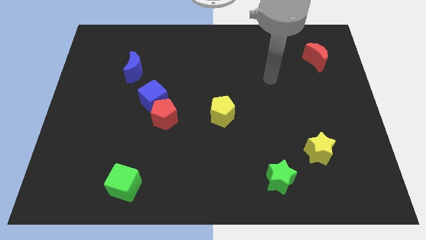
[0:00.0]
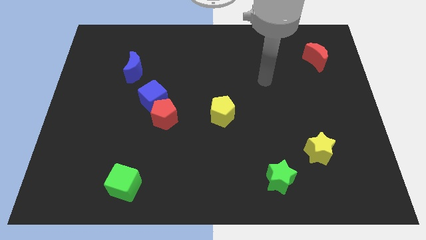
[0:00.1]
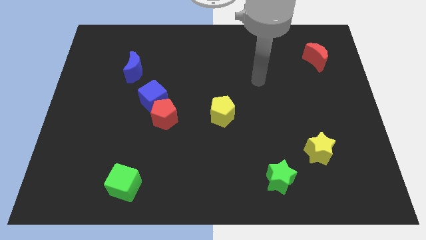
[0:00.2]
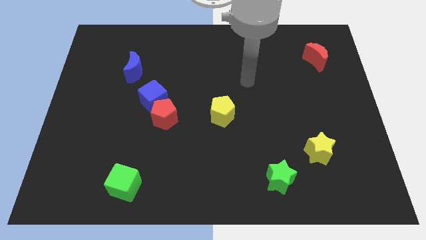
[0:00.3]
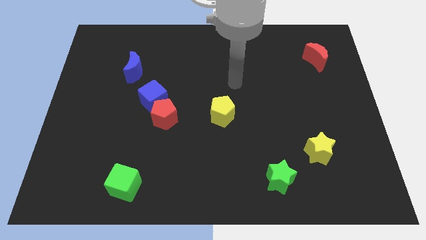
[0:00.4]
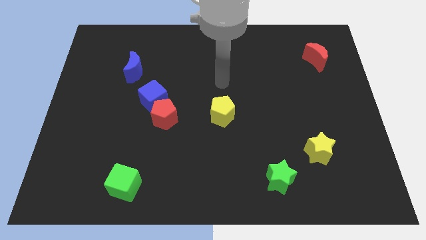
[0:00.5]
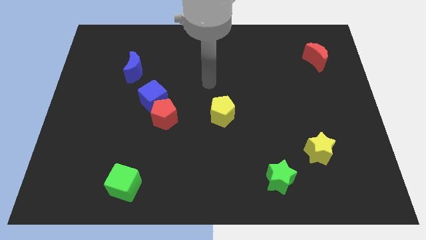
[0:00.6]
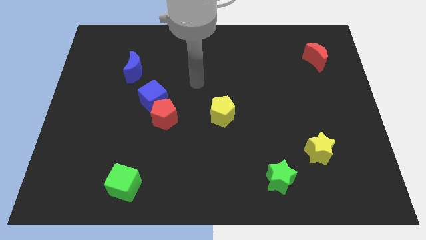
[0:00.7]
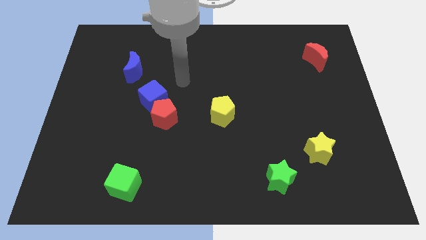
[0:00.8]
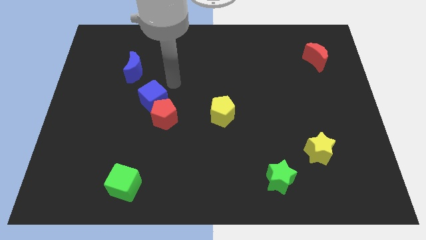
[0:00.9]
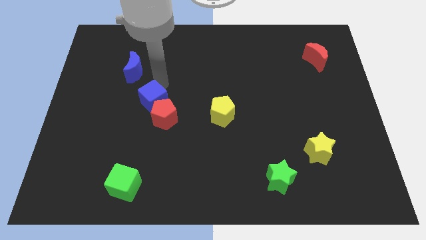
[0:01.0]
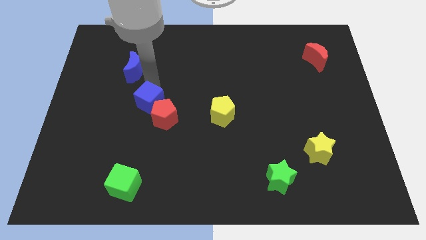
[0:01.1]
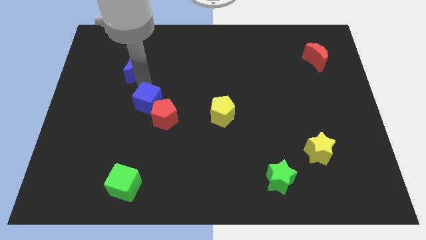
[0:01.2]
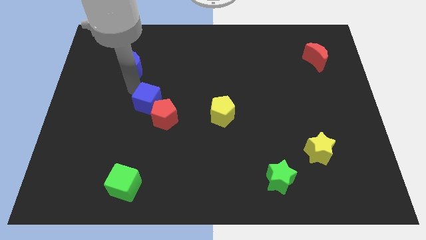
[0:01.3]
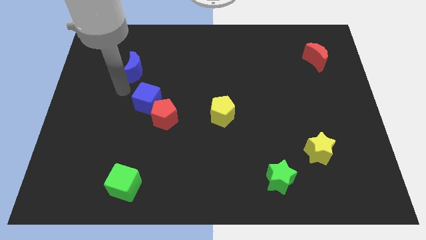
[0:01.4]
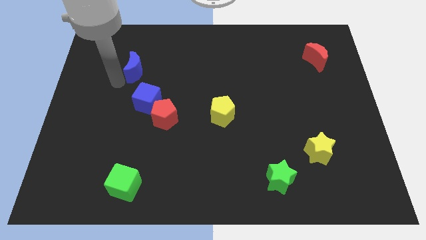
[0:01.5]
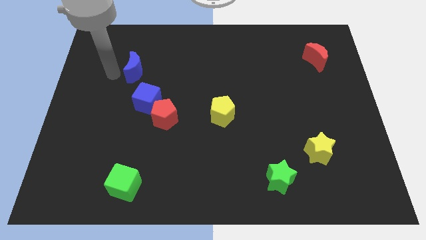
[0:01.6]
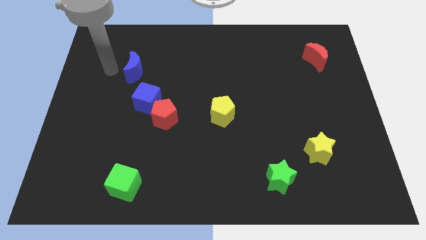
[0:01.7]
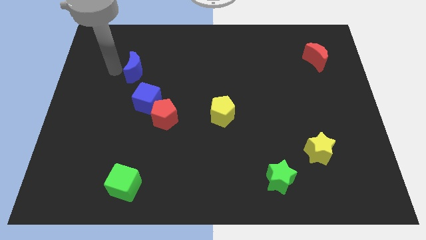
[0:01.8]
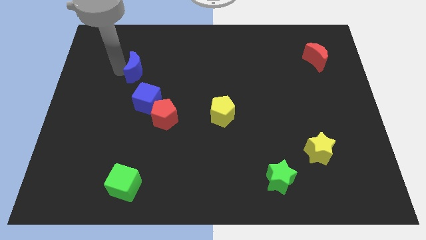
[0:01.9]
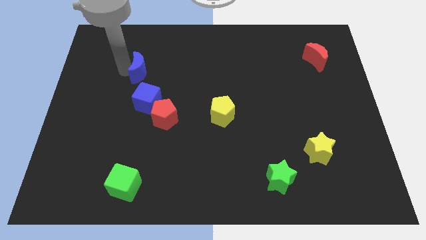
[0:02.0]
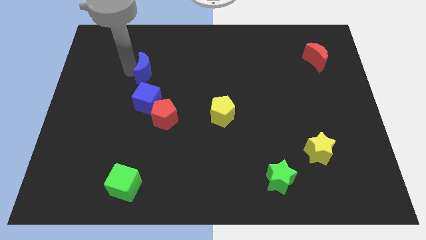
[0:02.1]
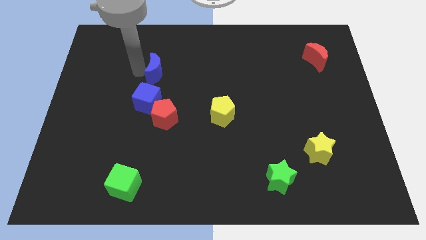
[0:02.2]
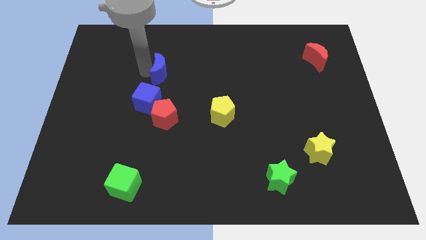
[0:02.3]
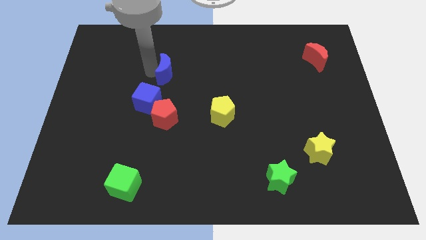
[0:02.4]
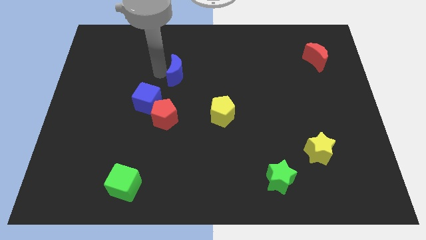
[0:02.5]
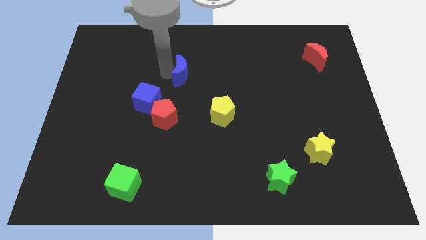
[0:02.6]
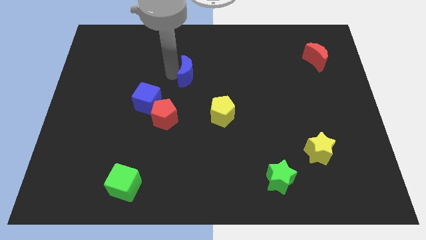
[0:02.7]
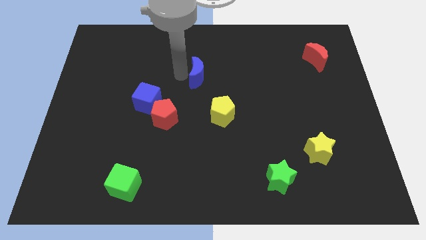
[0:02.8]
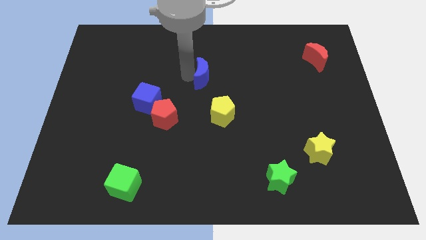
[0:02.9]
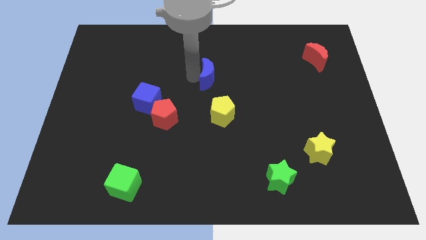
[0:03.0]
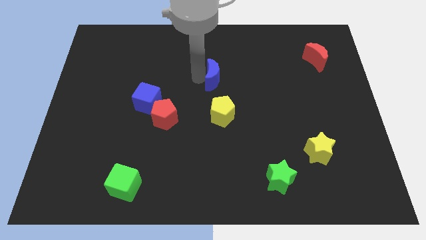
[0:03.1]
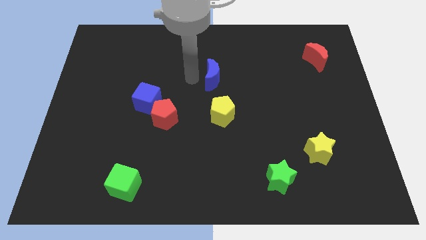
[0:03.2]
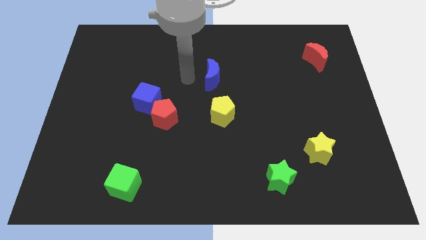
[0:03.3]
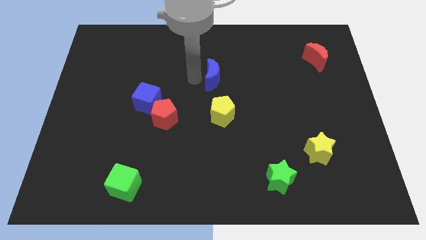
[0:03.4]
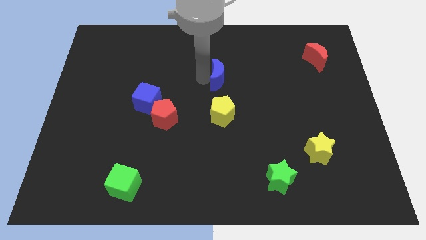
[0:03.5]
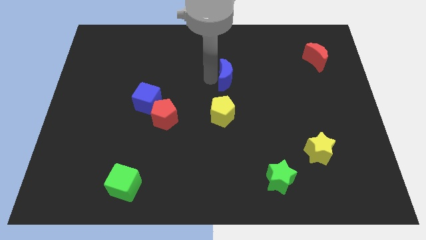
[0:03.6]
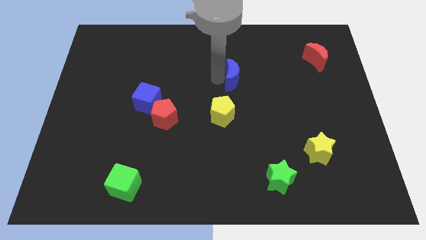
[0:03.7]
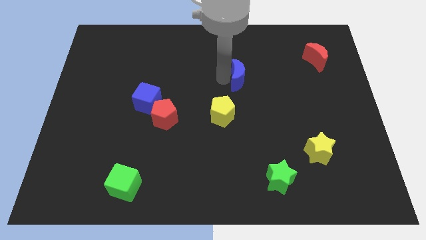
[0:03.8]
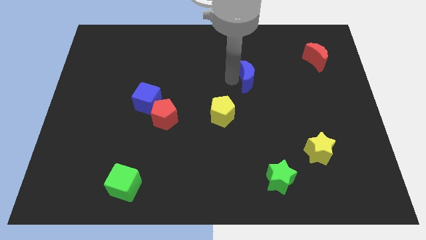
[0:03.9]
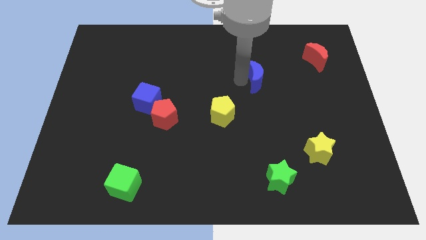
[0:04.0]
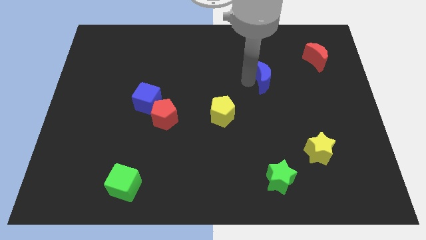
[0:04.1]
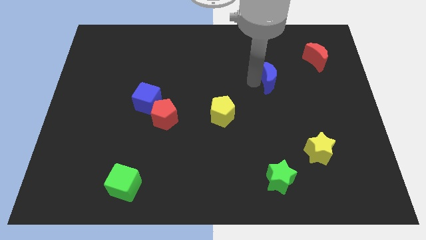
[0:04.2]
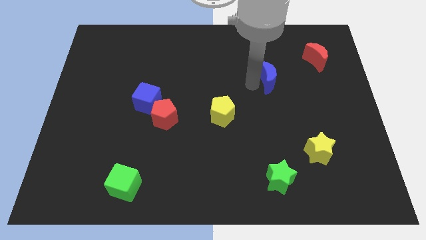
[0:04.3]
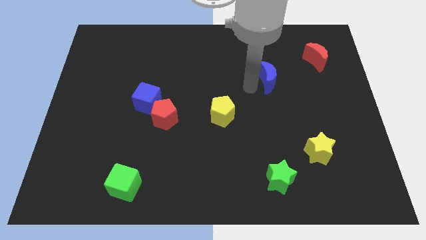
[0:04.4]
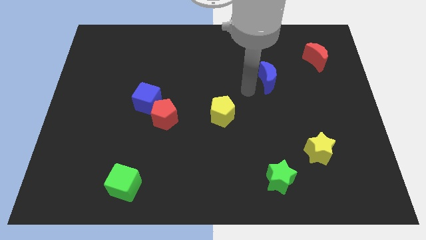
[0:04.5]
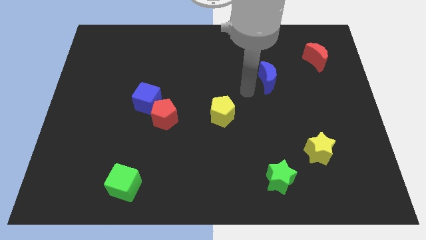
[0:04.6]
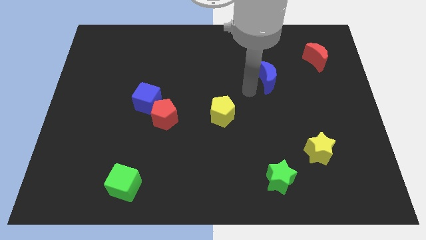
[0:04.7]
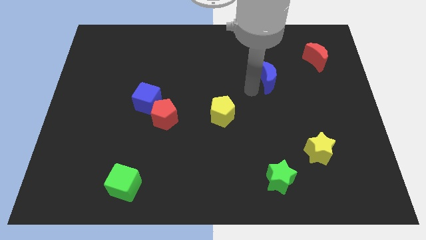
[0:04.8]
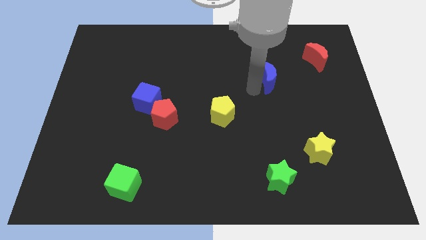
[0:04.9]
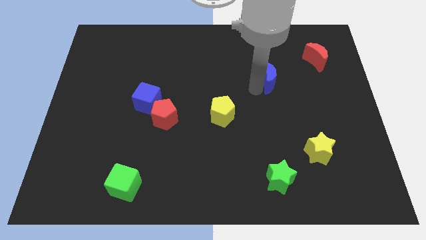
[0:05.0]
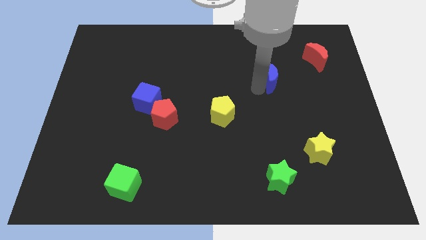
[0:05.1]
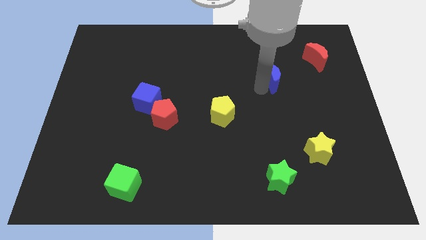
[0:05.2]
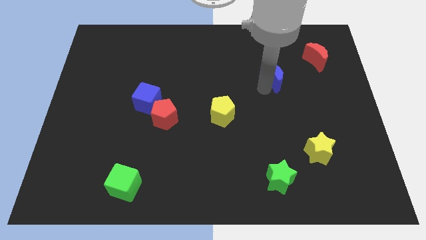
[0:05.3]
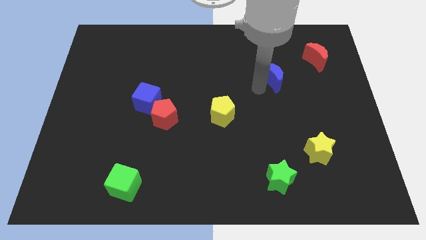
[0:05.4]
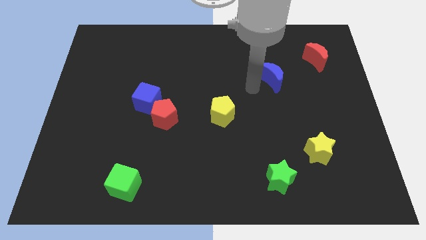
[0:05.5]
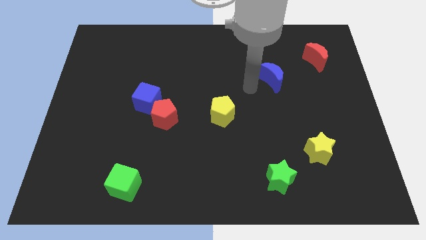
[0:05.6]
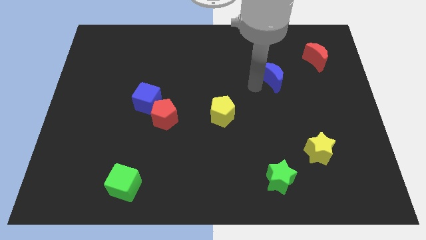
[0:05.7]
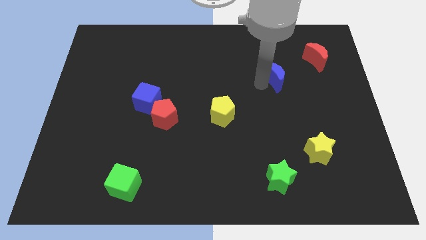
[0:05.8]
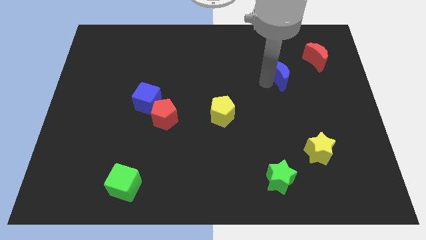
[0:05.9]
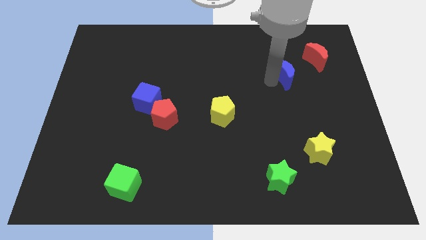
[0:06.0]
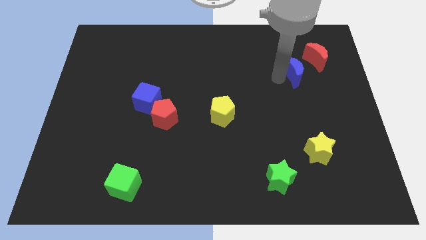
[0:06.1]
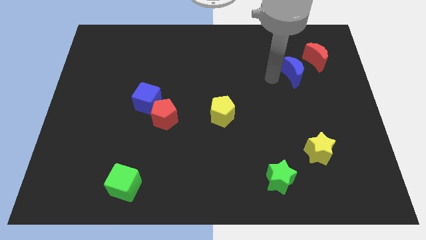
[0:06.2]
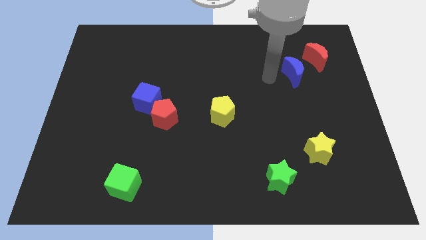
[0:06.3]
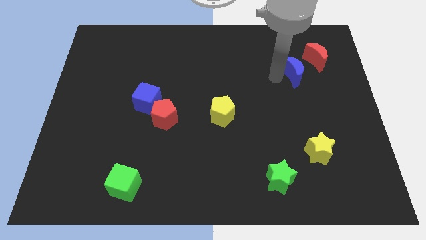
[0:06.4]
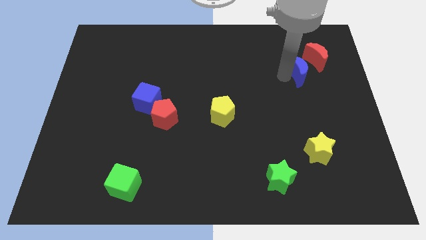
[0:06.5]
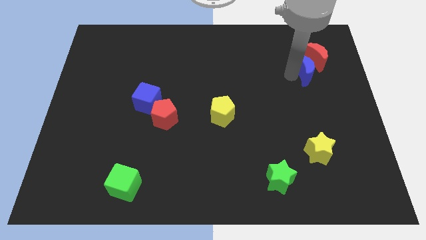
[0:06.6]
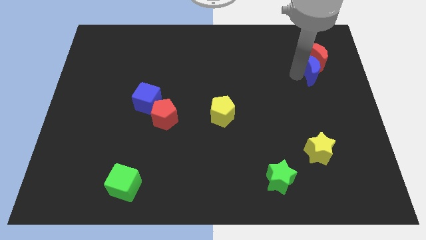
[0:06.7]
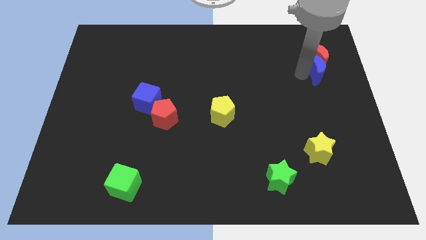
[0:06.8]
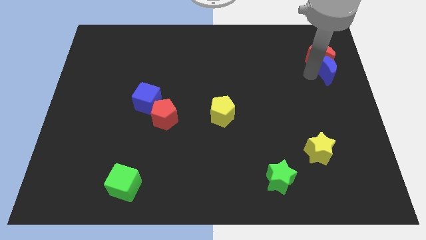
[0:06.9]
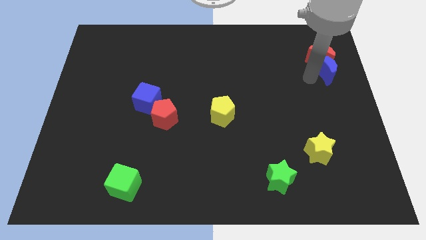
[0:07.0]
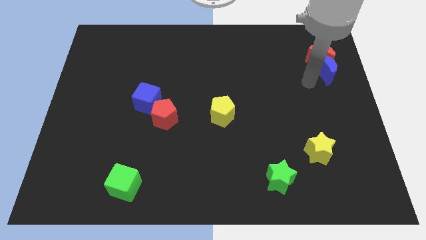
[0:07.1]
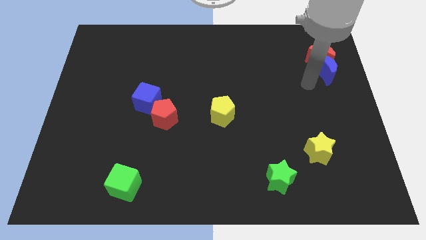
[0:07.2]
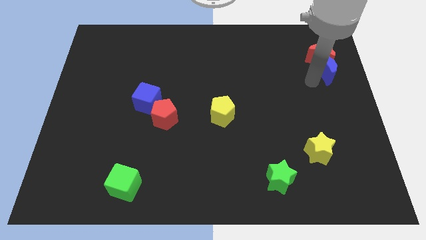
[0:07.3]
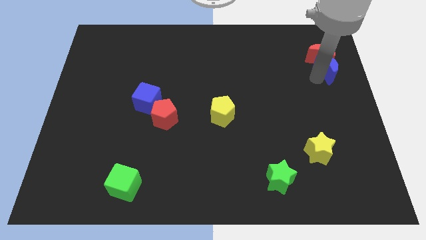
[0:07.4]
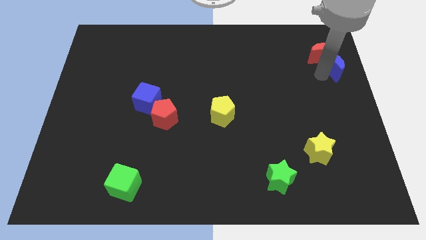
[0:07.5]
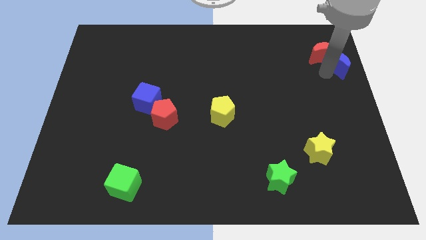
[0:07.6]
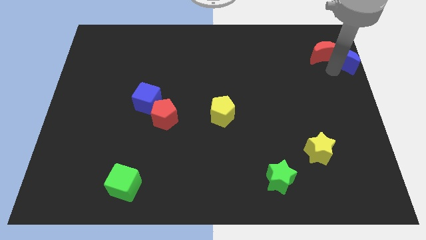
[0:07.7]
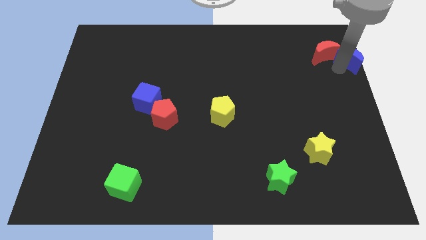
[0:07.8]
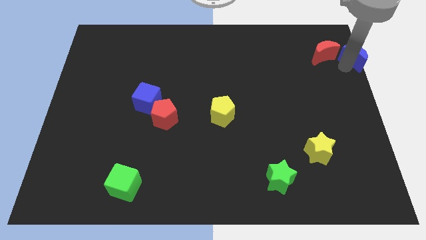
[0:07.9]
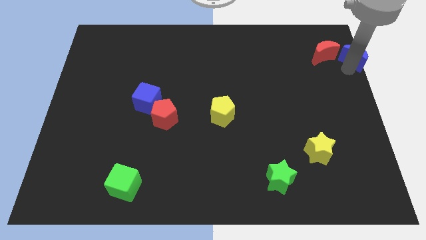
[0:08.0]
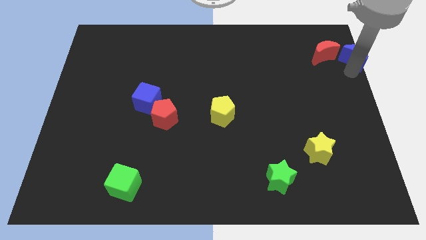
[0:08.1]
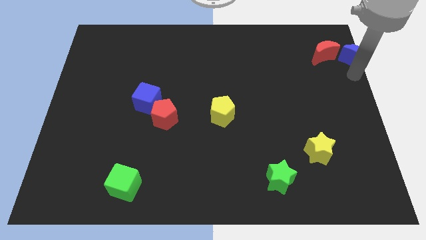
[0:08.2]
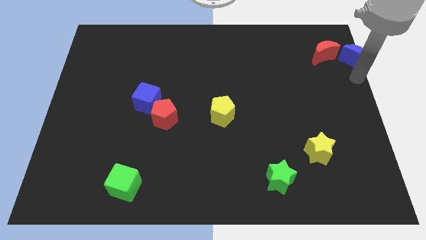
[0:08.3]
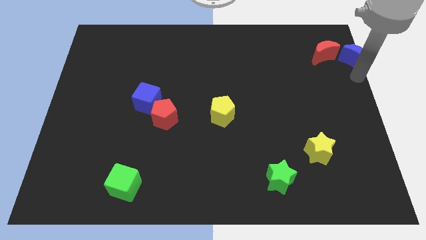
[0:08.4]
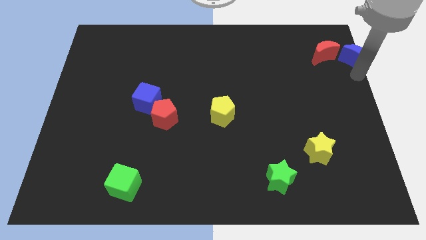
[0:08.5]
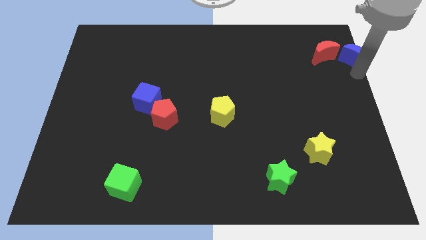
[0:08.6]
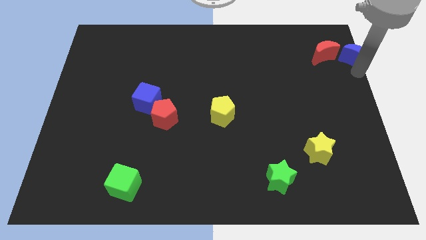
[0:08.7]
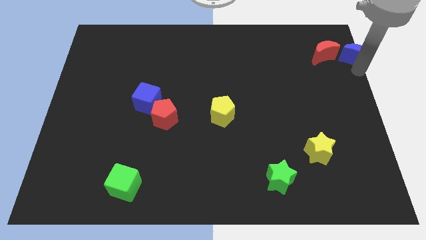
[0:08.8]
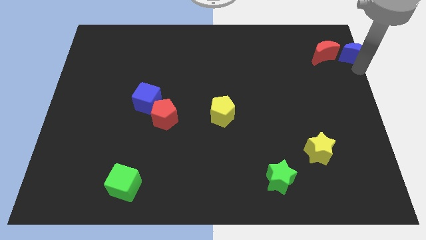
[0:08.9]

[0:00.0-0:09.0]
slide the blue moon to the top right
